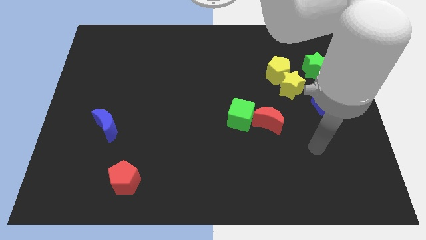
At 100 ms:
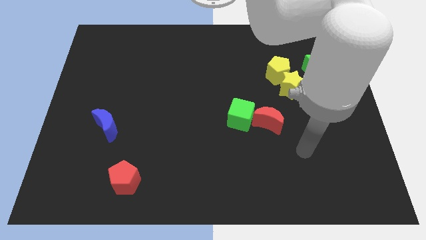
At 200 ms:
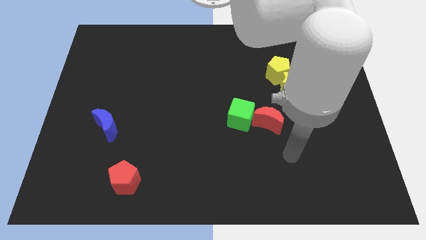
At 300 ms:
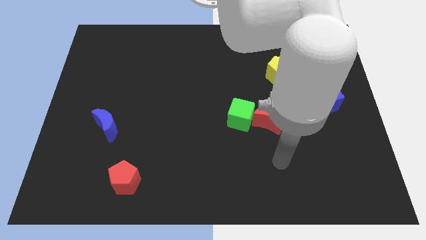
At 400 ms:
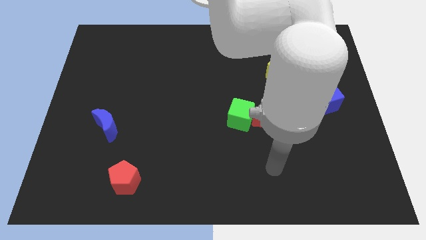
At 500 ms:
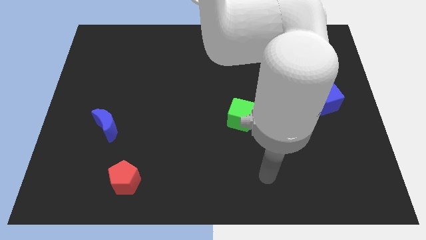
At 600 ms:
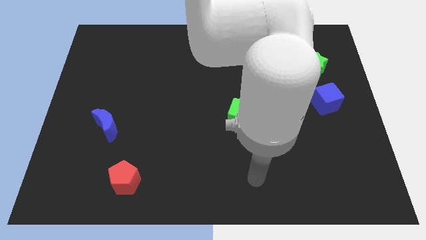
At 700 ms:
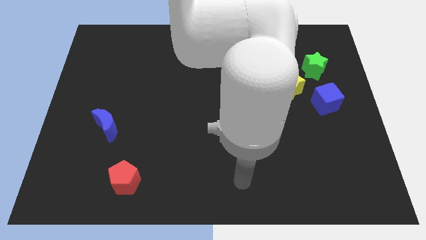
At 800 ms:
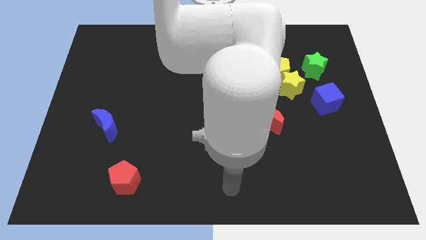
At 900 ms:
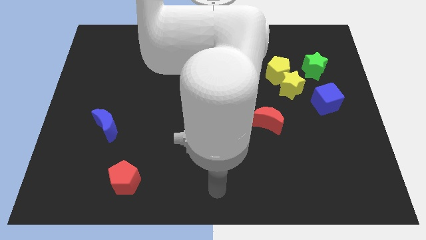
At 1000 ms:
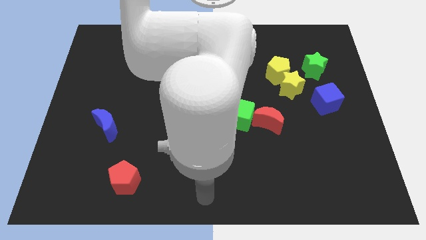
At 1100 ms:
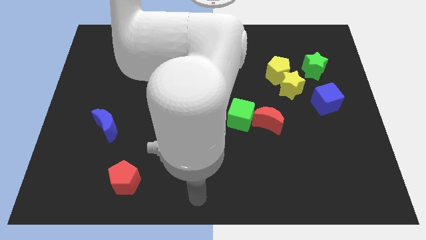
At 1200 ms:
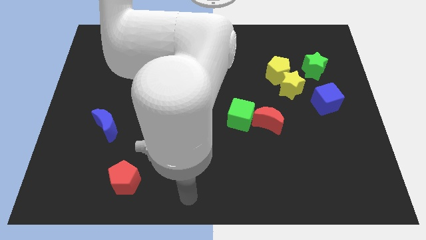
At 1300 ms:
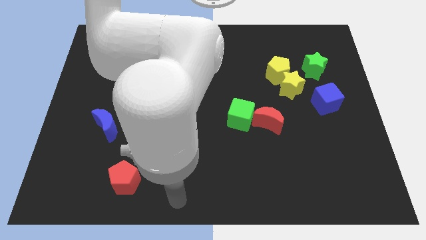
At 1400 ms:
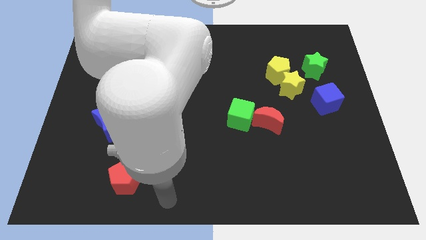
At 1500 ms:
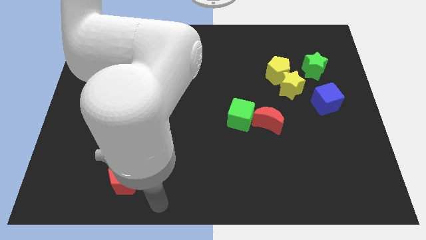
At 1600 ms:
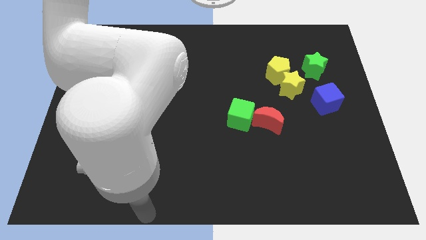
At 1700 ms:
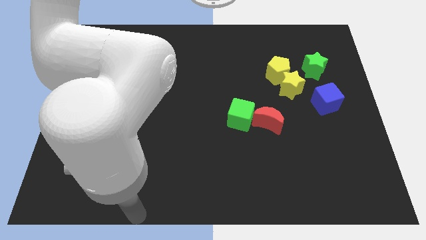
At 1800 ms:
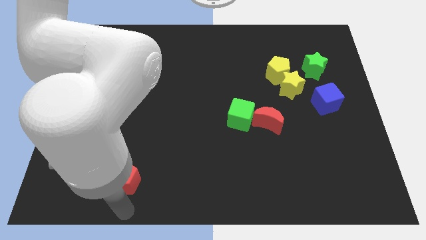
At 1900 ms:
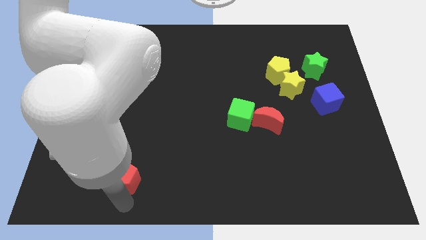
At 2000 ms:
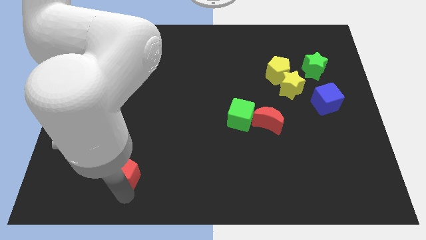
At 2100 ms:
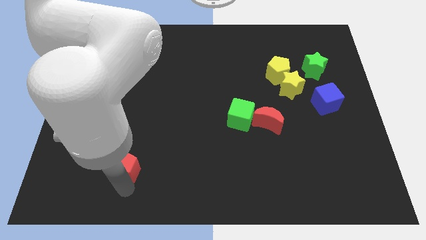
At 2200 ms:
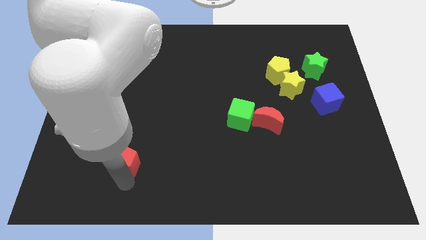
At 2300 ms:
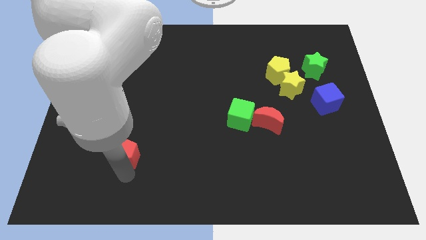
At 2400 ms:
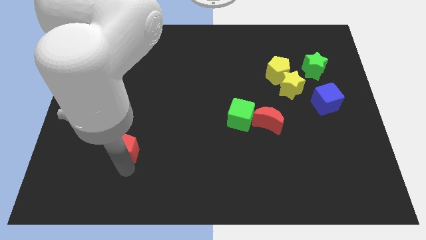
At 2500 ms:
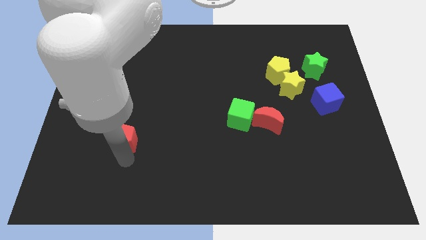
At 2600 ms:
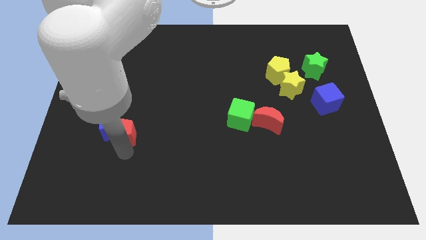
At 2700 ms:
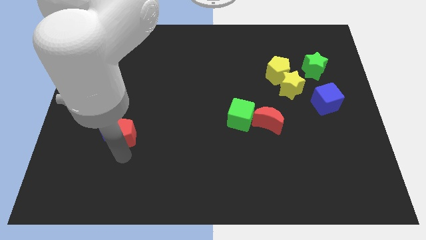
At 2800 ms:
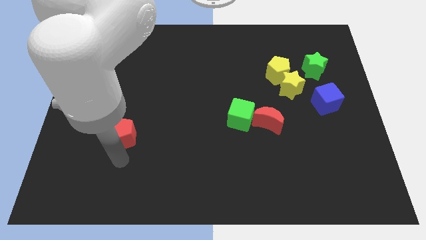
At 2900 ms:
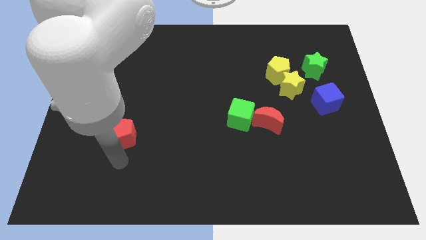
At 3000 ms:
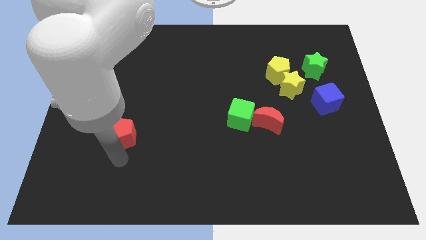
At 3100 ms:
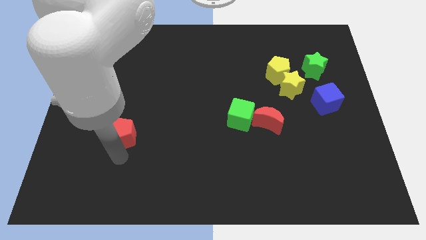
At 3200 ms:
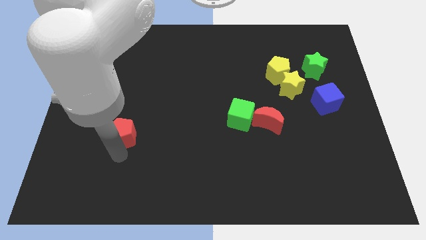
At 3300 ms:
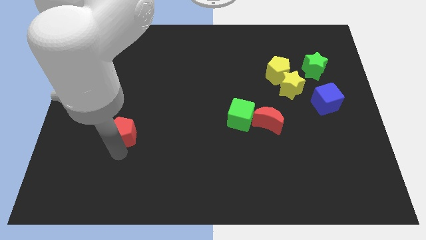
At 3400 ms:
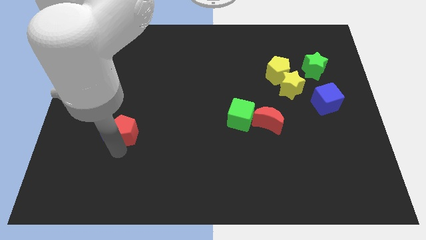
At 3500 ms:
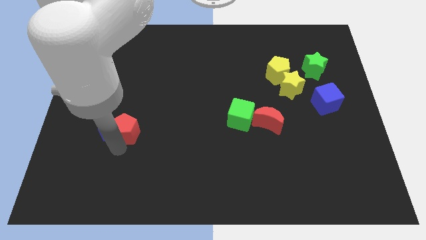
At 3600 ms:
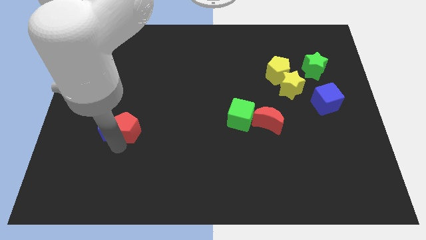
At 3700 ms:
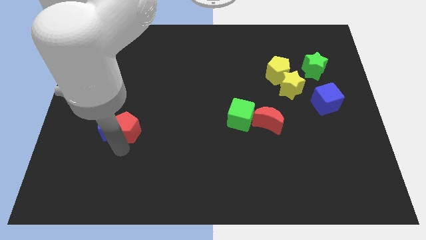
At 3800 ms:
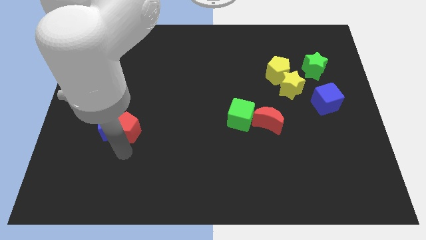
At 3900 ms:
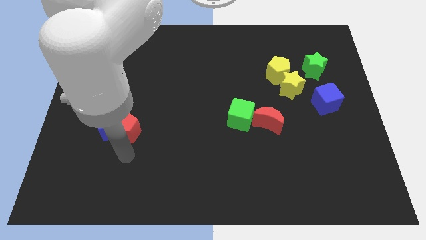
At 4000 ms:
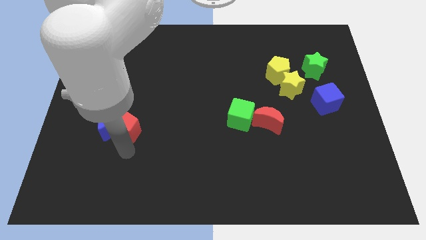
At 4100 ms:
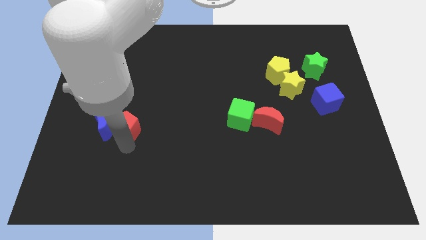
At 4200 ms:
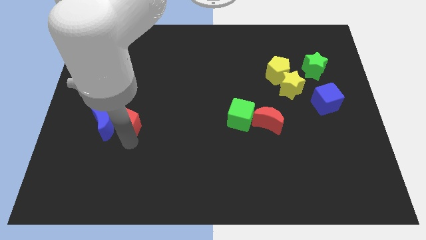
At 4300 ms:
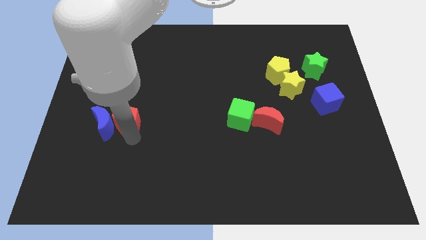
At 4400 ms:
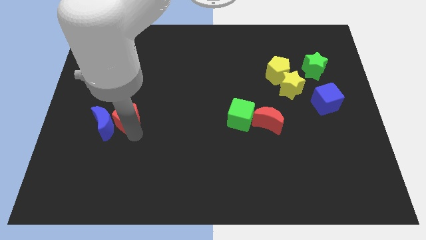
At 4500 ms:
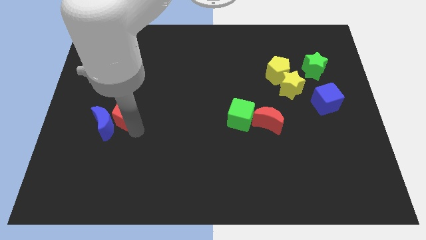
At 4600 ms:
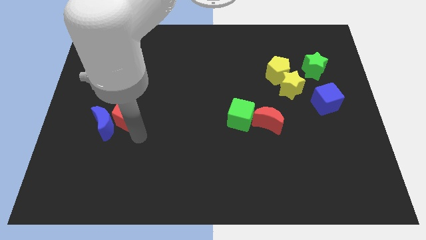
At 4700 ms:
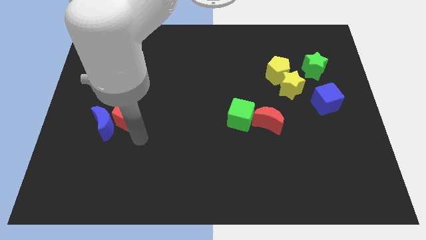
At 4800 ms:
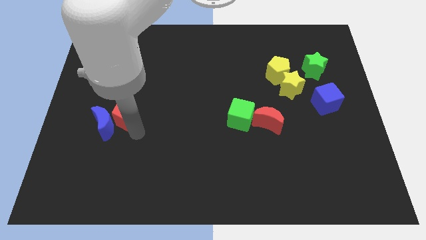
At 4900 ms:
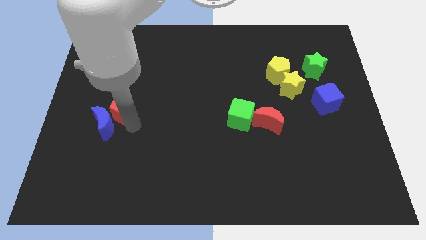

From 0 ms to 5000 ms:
move the red pentagon above the blue moon

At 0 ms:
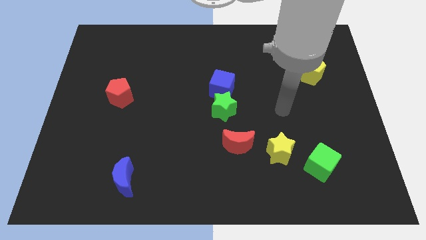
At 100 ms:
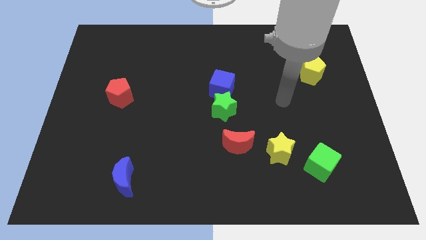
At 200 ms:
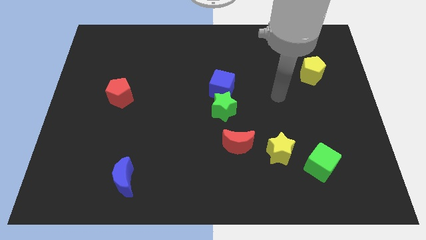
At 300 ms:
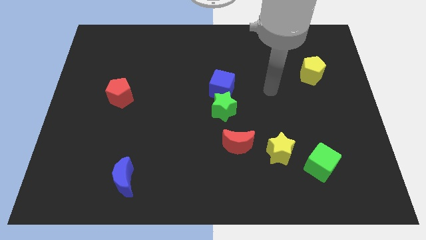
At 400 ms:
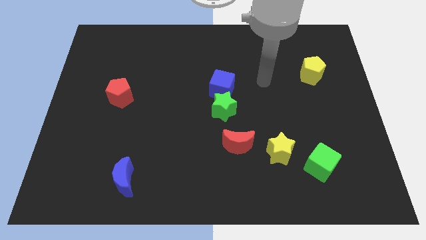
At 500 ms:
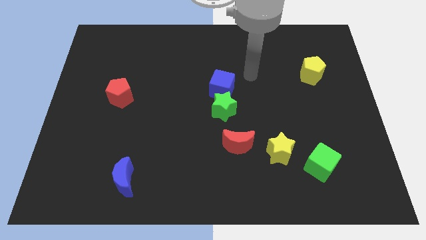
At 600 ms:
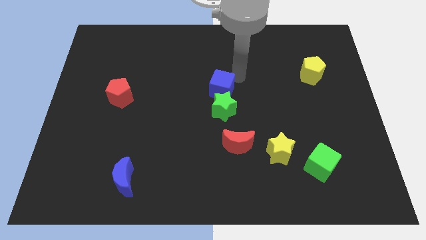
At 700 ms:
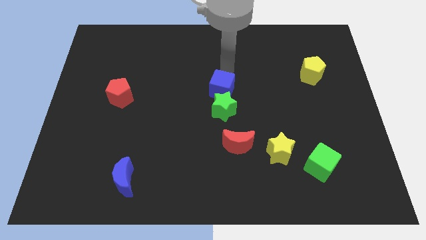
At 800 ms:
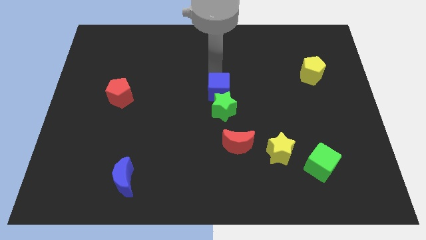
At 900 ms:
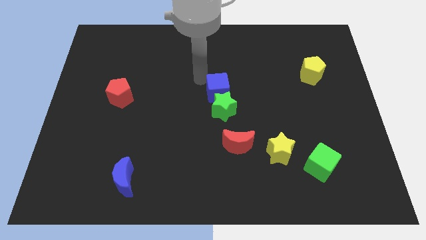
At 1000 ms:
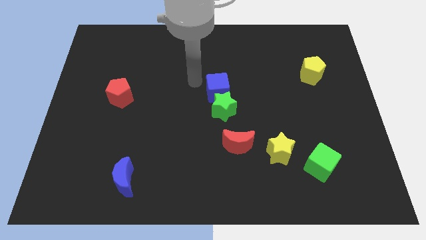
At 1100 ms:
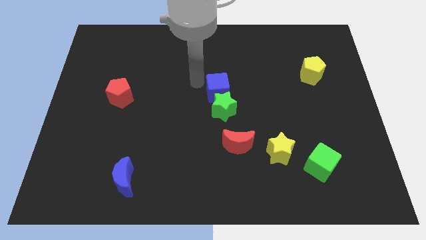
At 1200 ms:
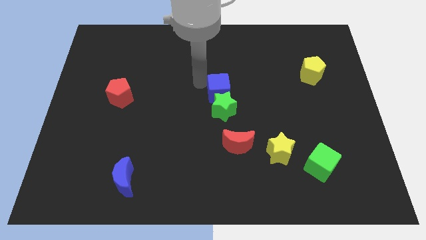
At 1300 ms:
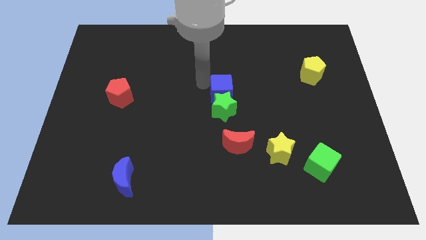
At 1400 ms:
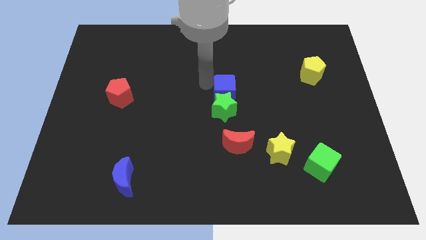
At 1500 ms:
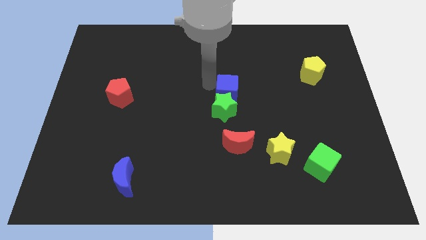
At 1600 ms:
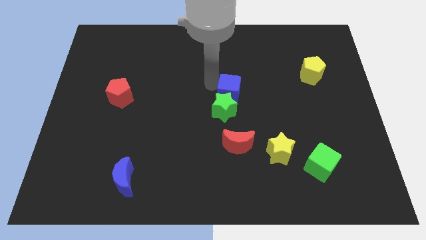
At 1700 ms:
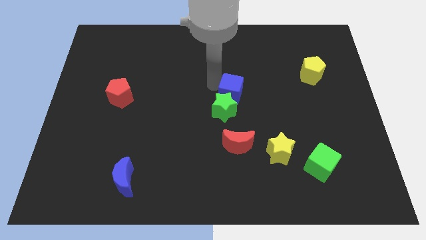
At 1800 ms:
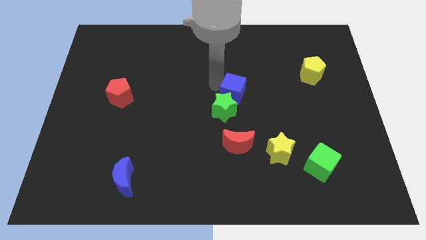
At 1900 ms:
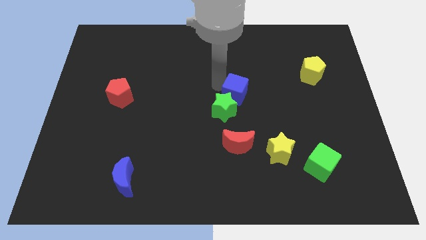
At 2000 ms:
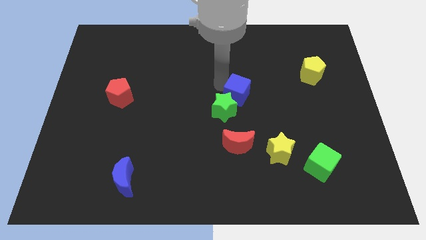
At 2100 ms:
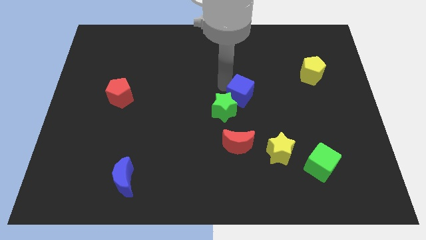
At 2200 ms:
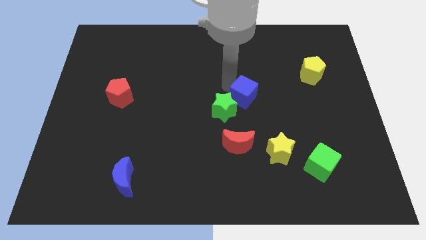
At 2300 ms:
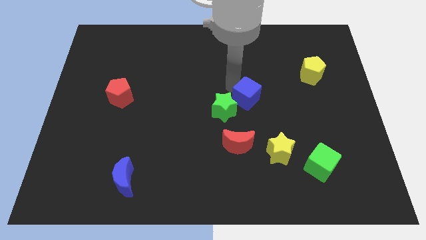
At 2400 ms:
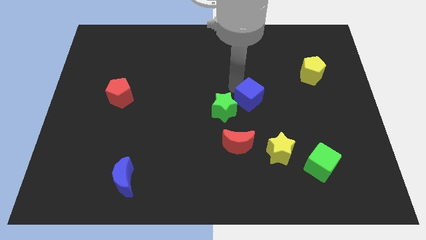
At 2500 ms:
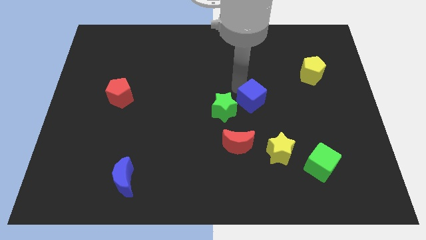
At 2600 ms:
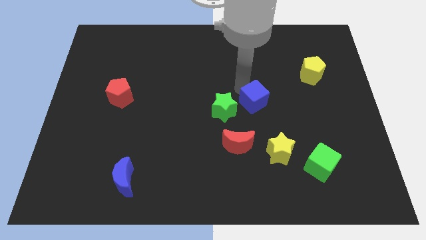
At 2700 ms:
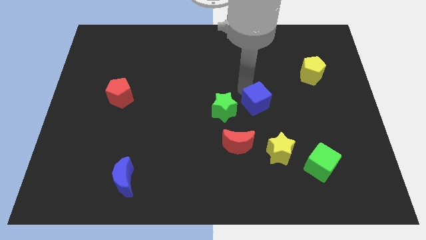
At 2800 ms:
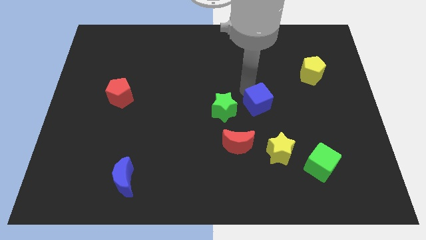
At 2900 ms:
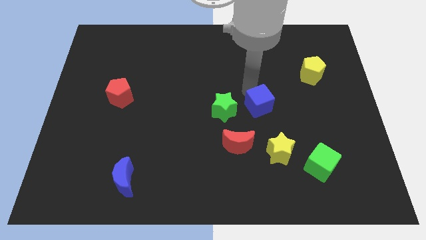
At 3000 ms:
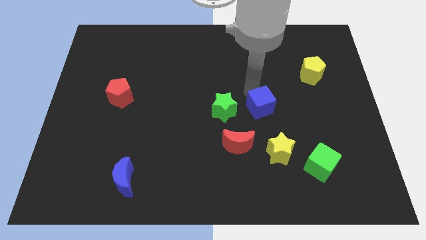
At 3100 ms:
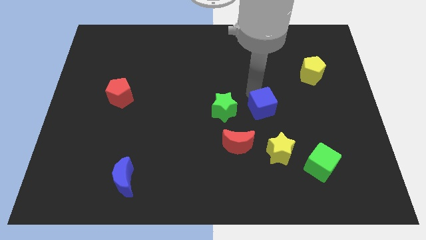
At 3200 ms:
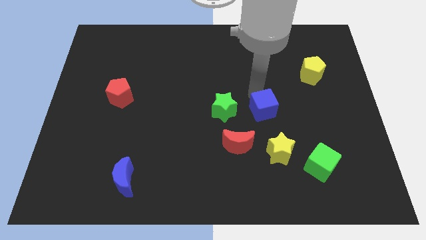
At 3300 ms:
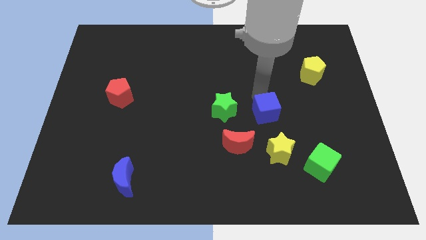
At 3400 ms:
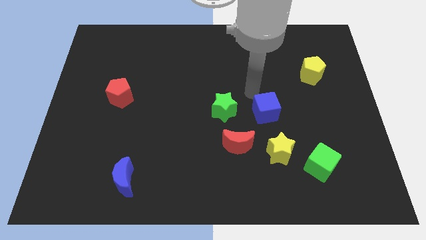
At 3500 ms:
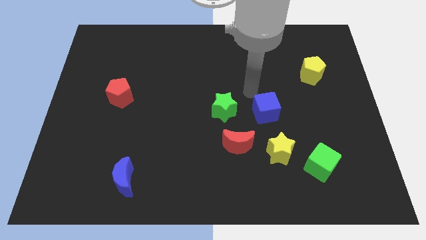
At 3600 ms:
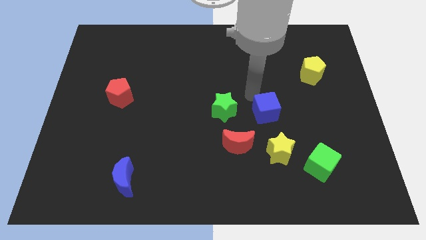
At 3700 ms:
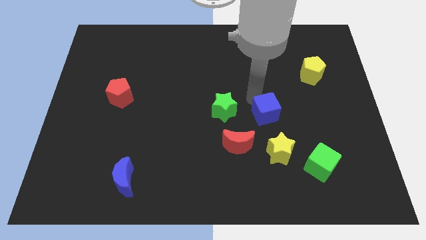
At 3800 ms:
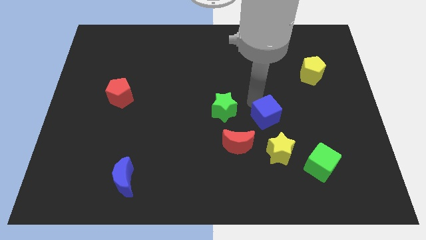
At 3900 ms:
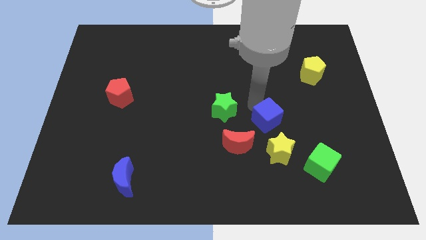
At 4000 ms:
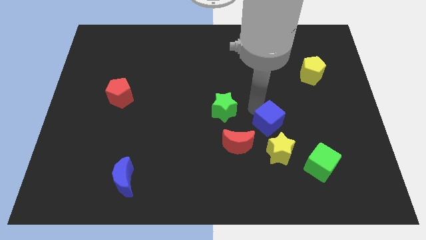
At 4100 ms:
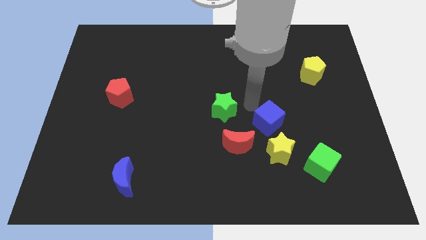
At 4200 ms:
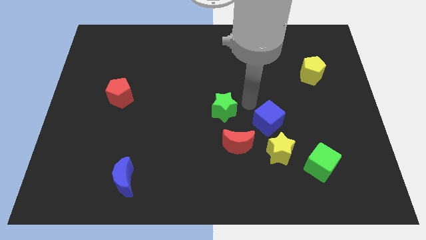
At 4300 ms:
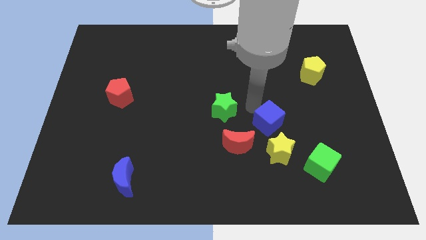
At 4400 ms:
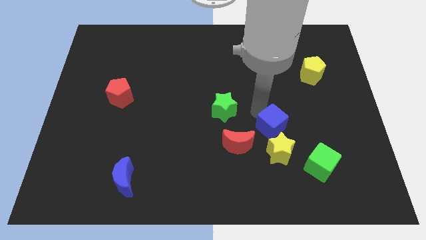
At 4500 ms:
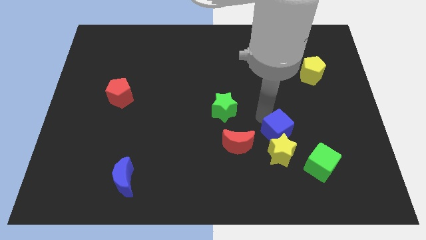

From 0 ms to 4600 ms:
slide the blue cube to the top left of the green cube
